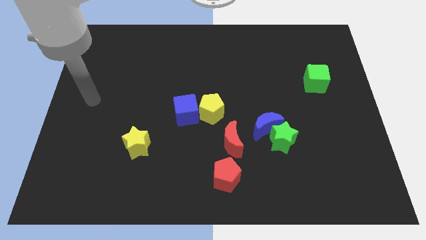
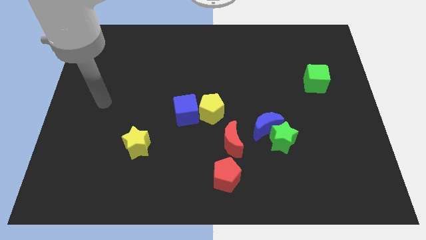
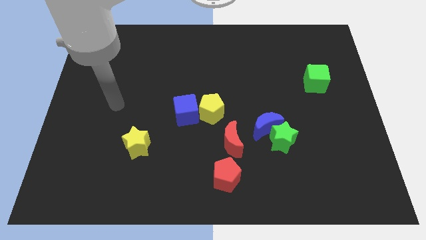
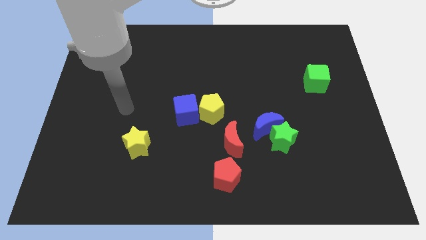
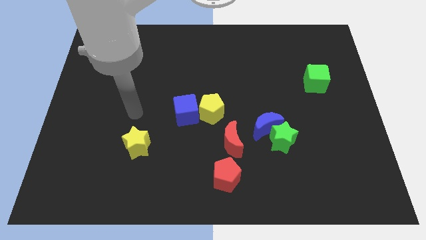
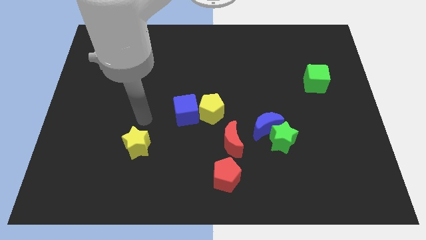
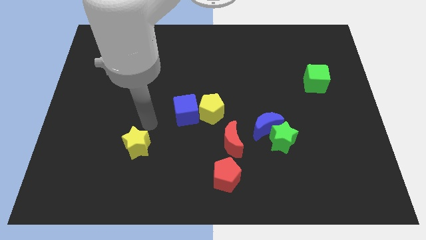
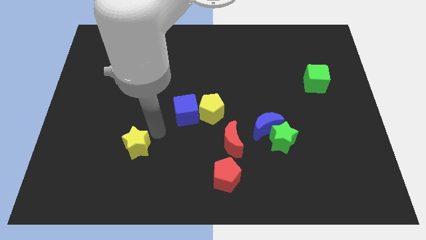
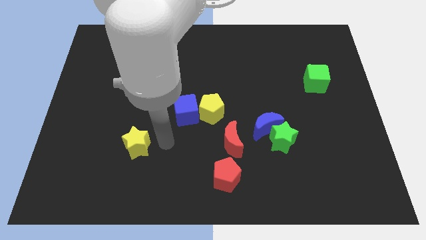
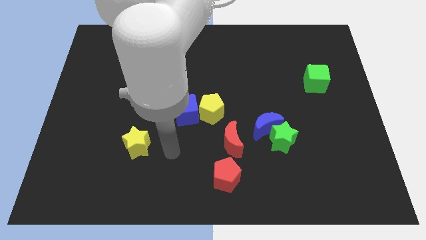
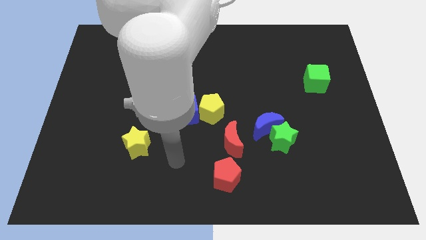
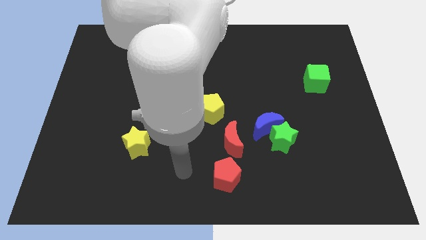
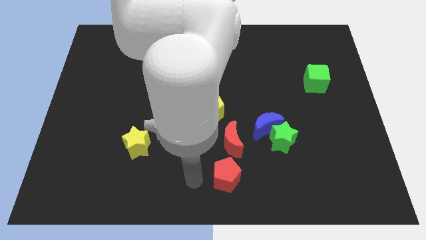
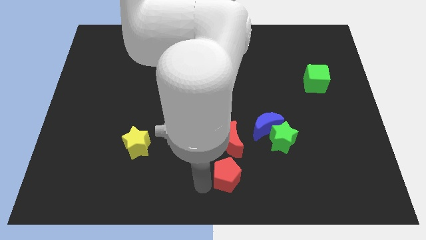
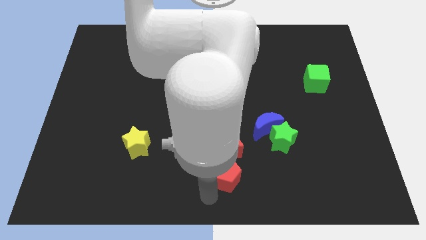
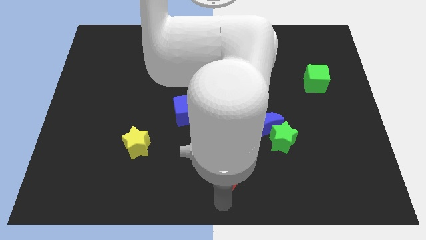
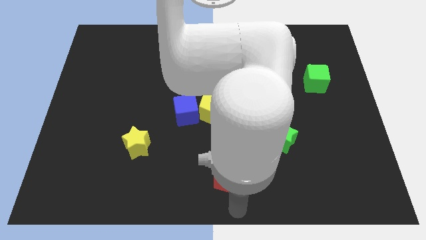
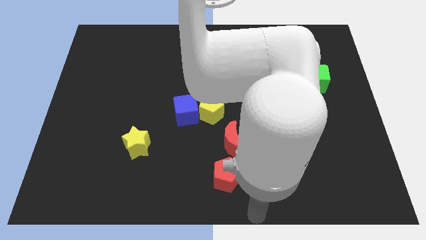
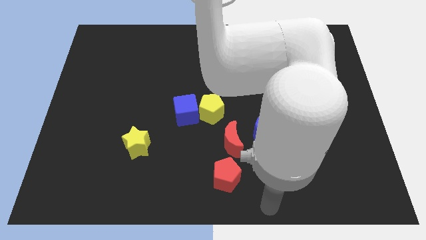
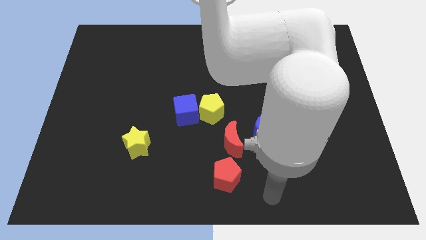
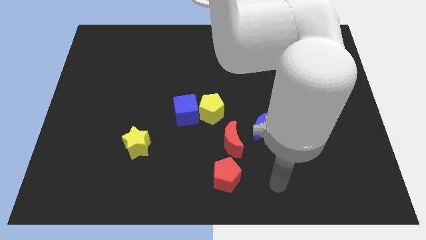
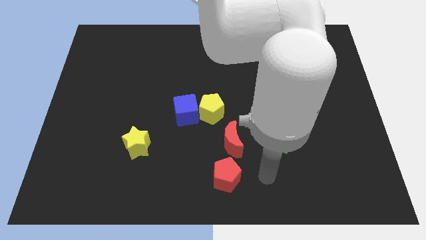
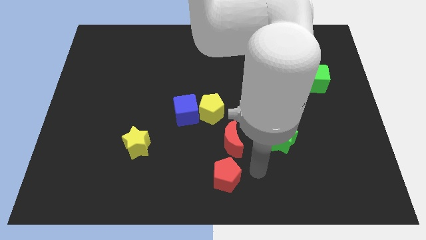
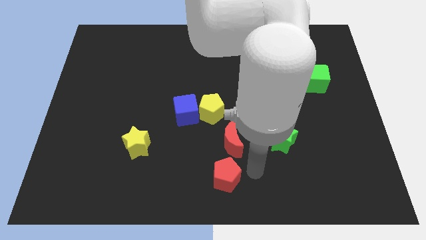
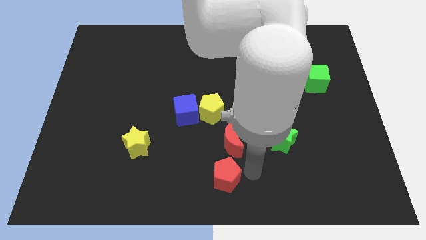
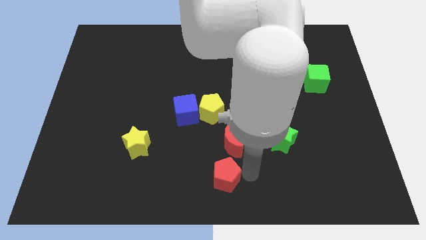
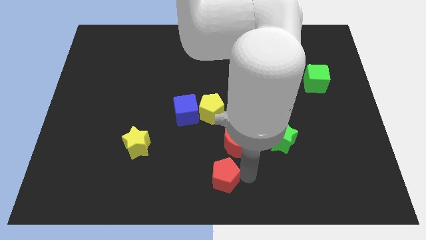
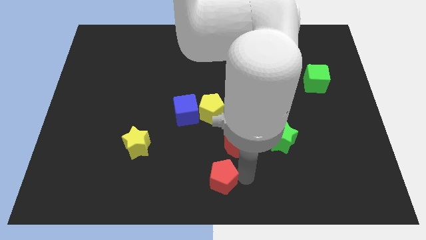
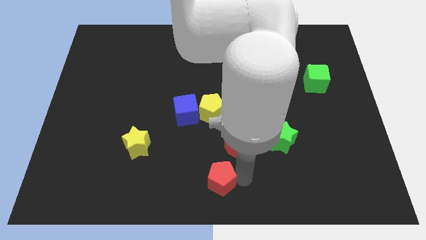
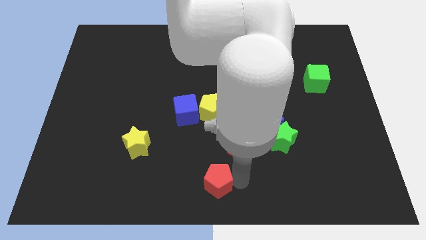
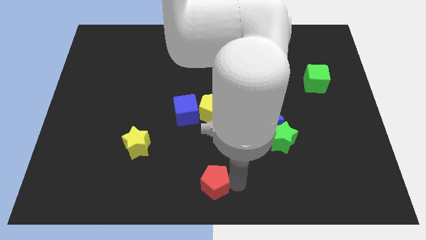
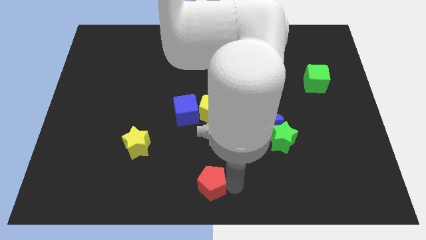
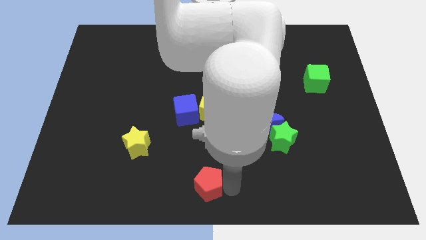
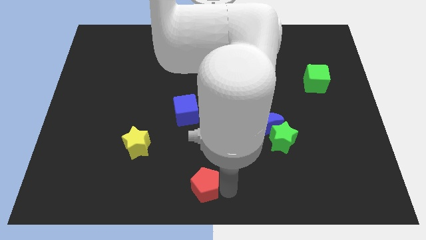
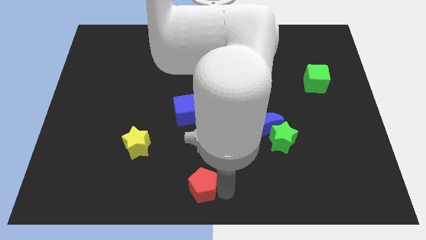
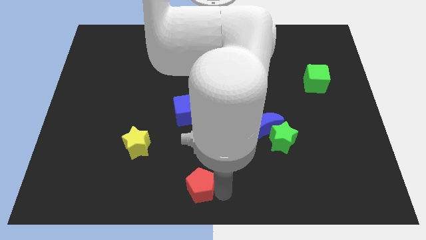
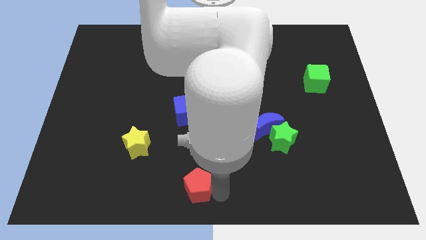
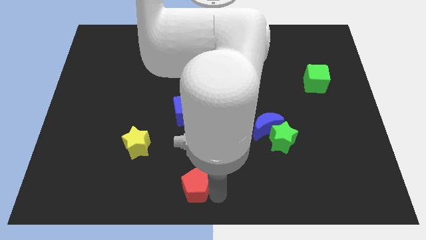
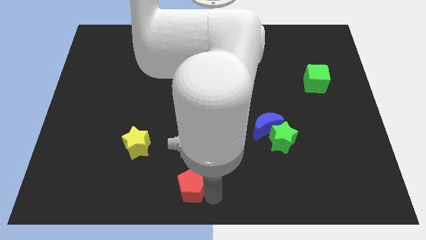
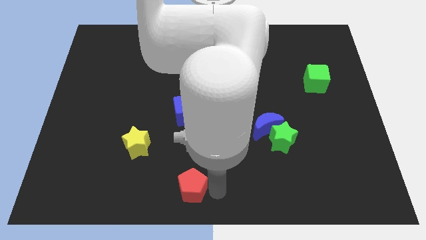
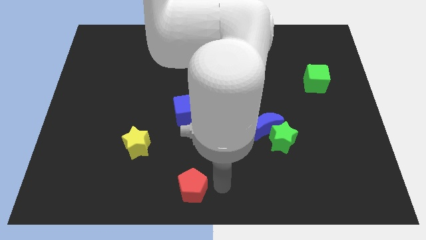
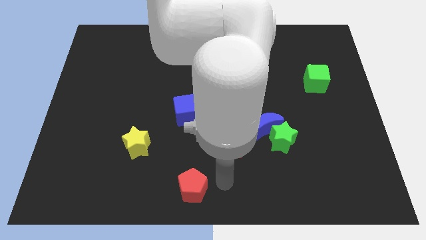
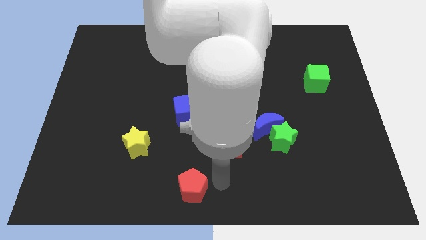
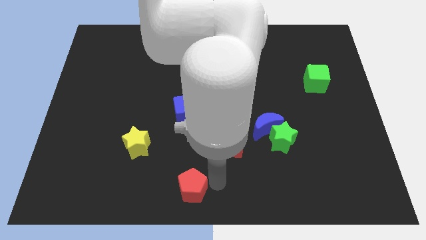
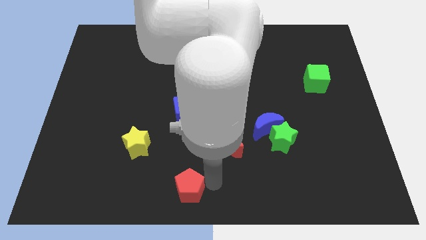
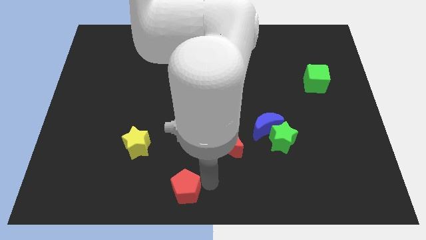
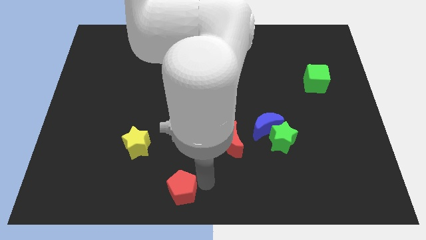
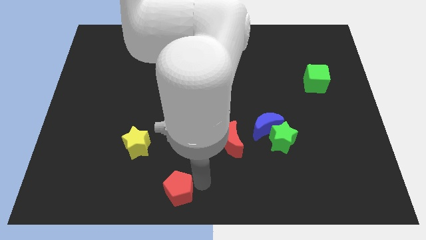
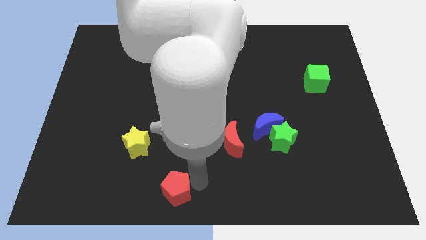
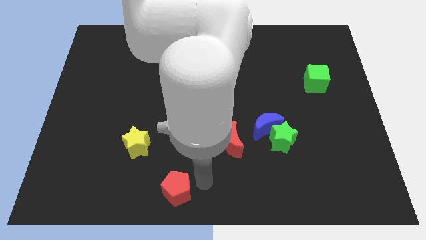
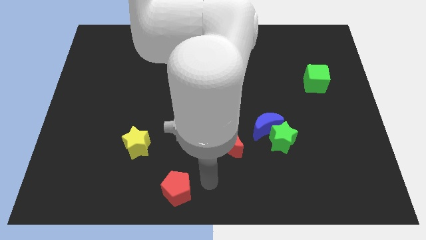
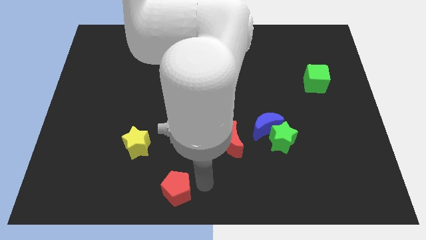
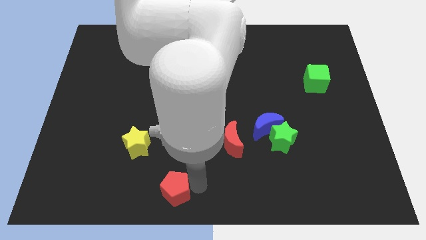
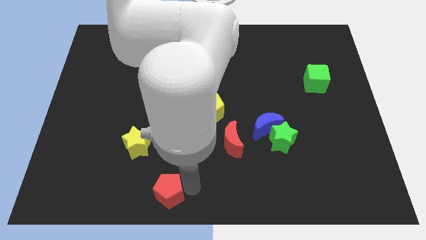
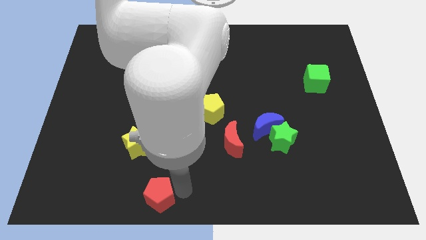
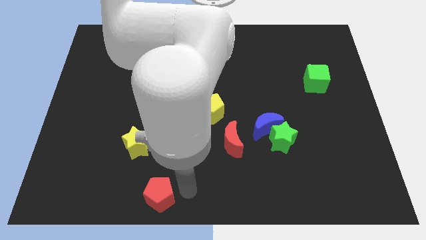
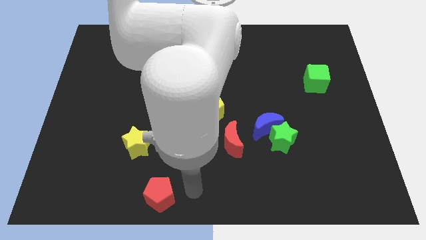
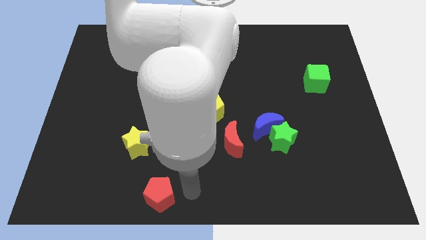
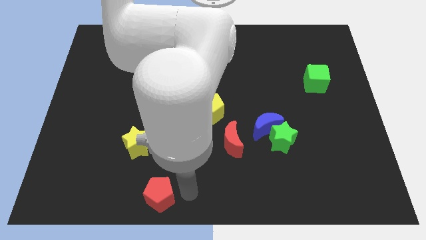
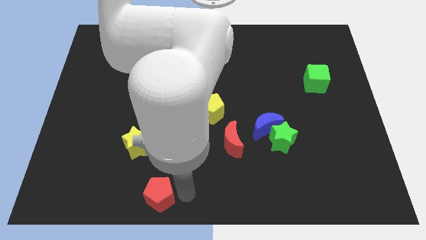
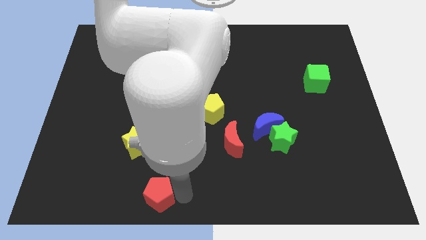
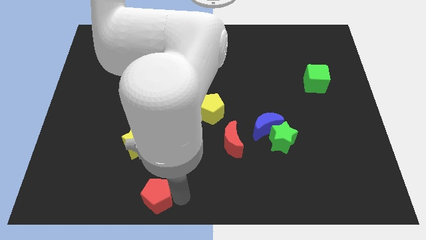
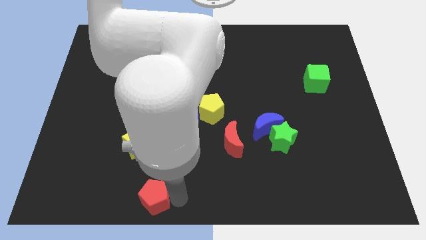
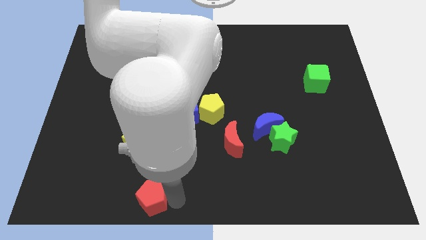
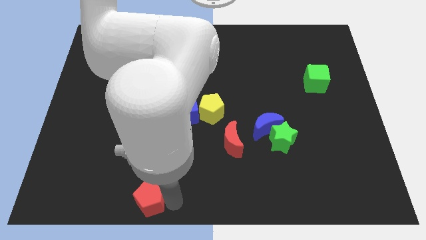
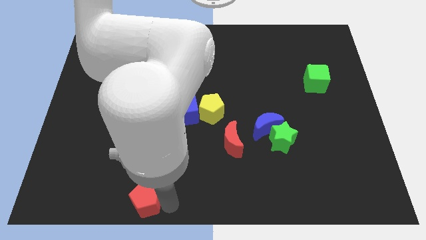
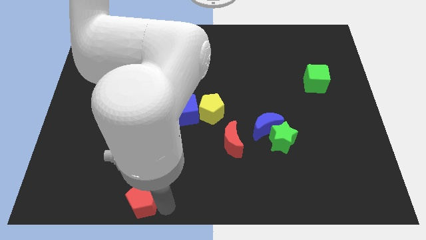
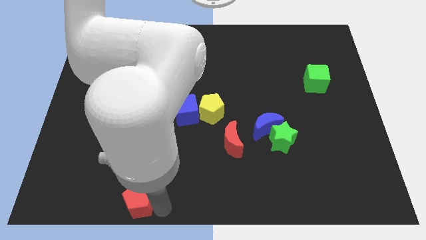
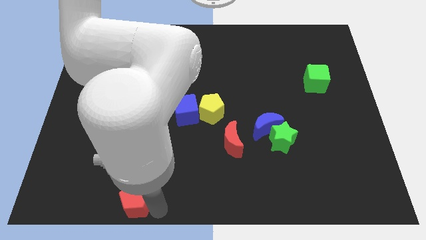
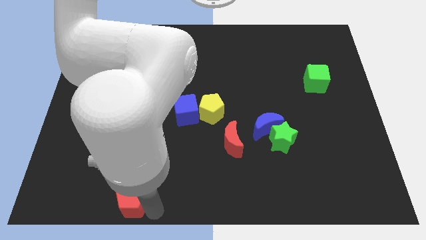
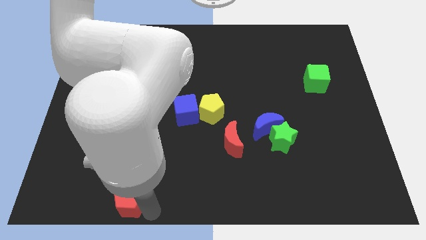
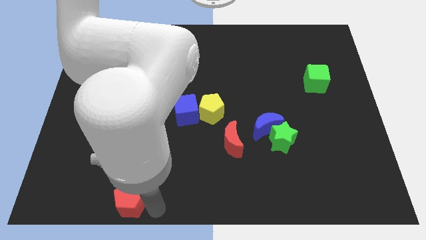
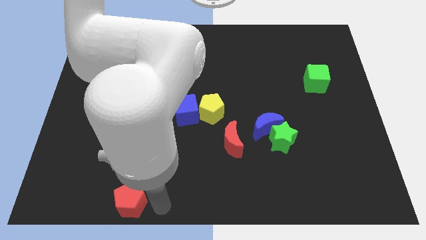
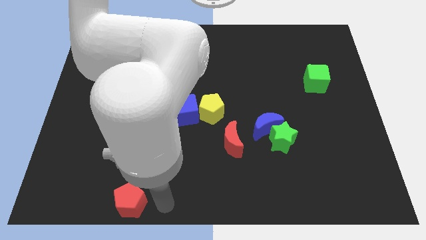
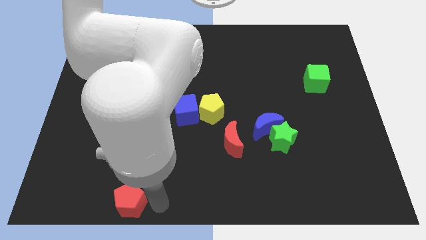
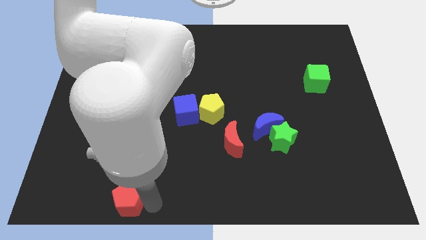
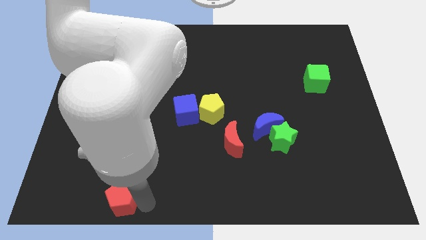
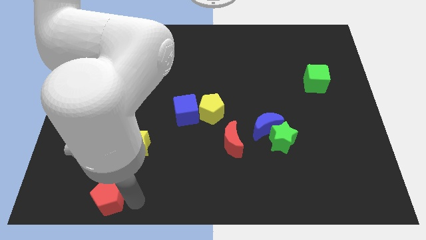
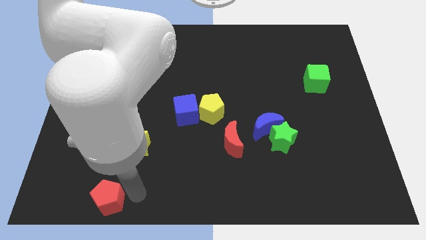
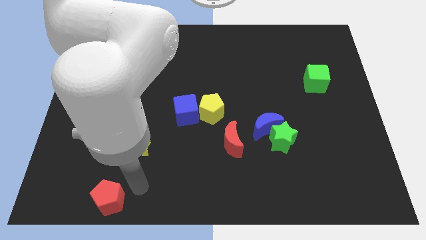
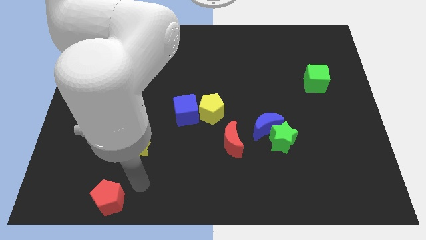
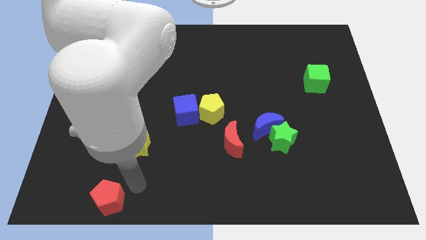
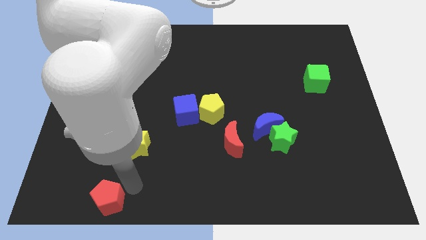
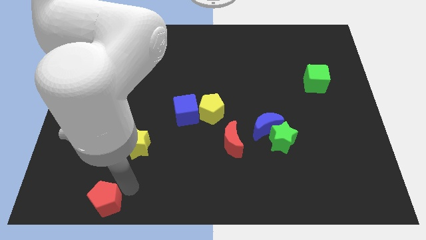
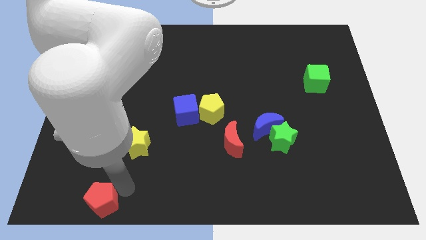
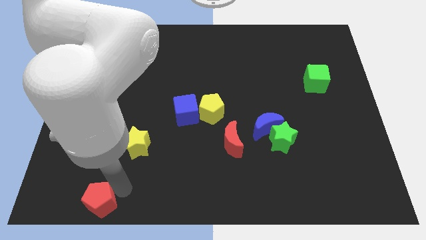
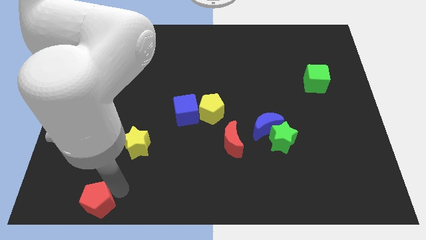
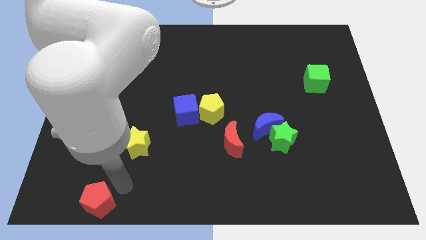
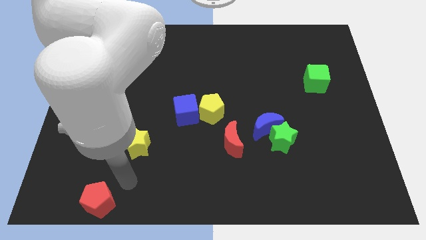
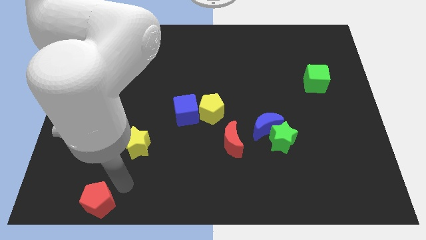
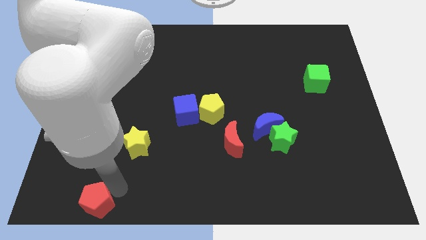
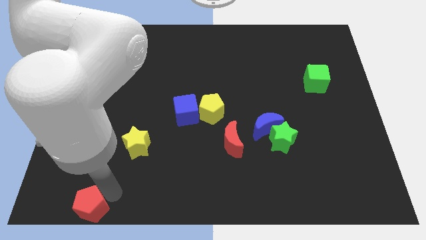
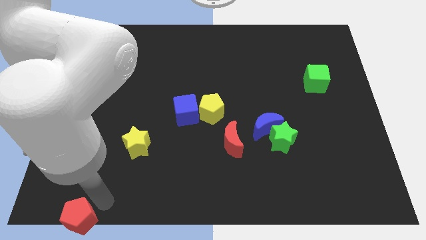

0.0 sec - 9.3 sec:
push the red pentagon to the bottom left
